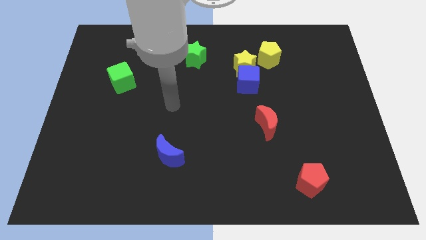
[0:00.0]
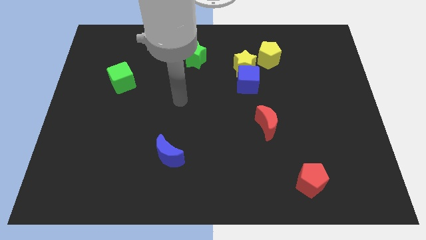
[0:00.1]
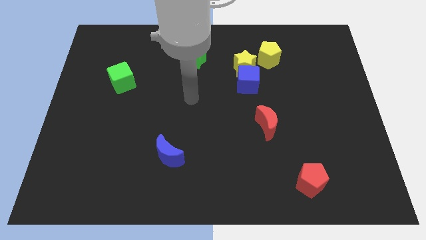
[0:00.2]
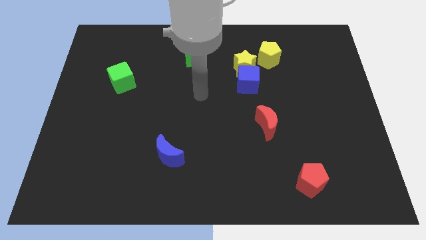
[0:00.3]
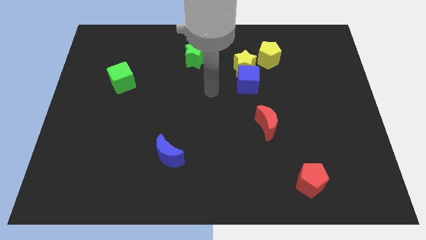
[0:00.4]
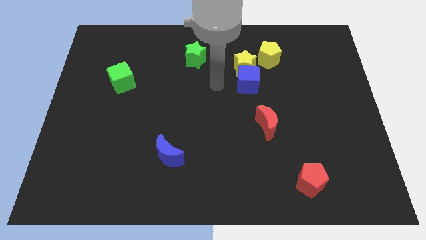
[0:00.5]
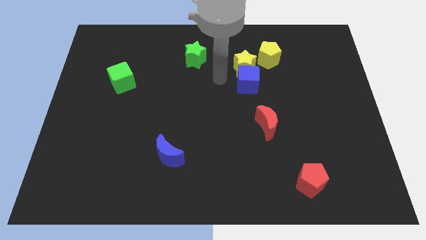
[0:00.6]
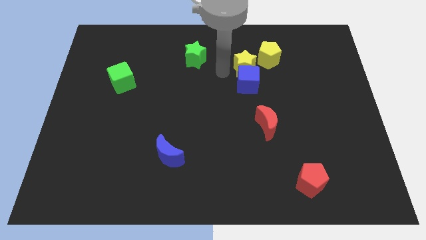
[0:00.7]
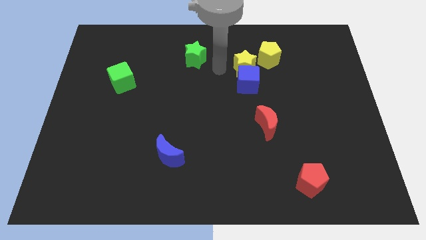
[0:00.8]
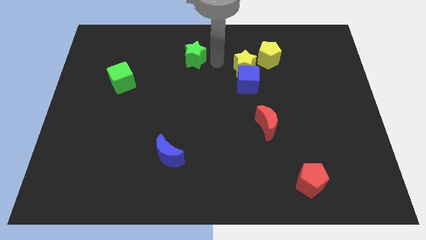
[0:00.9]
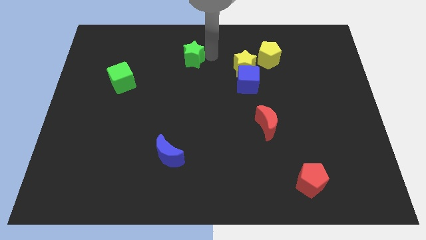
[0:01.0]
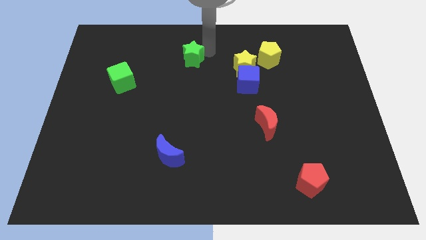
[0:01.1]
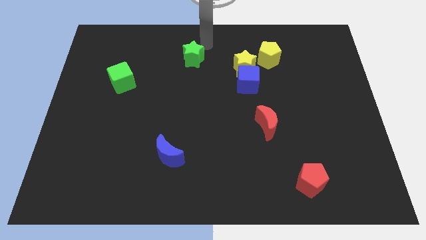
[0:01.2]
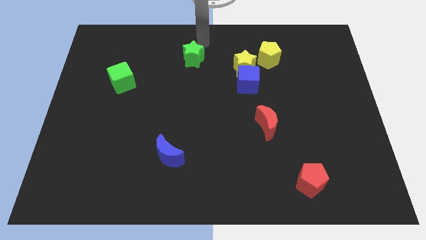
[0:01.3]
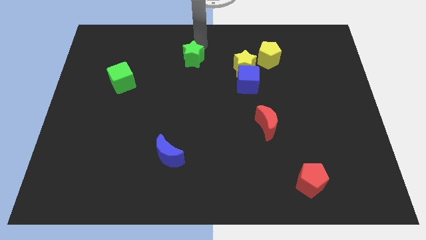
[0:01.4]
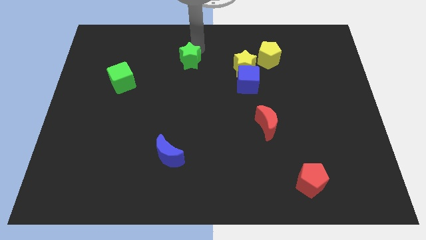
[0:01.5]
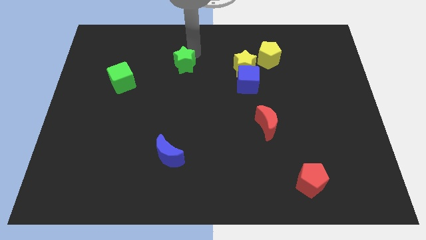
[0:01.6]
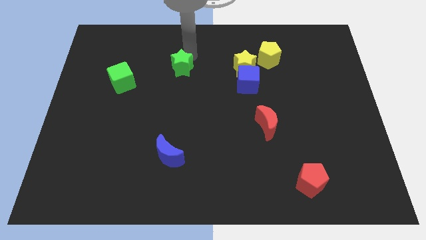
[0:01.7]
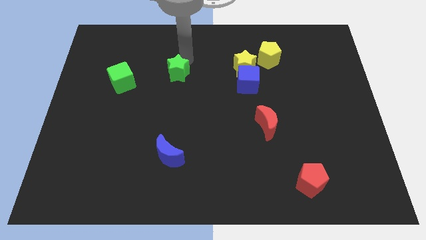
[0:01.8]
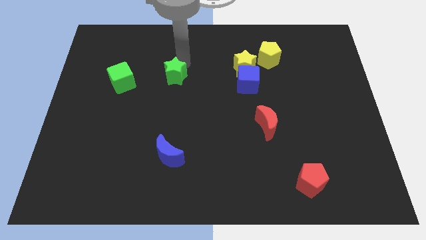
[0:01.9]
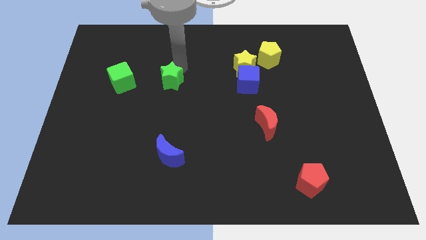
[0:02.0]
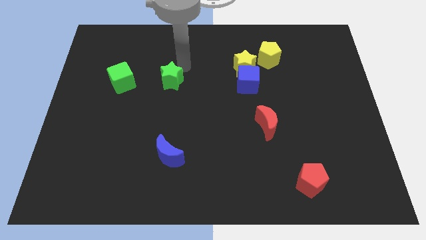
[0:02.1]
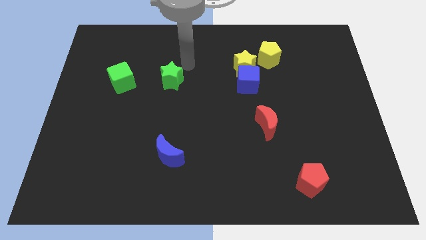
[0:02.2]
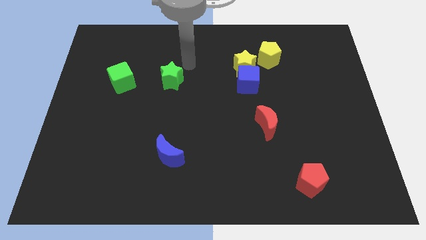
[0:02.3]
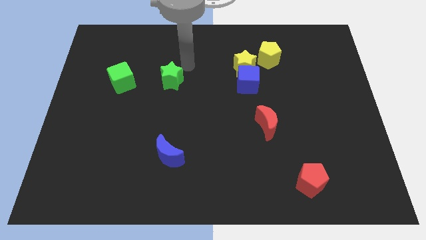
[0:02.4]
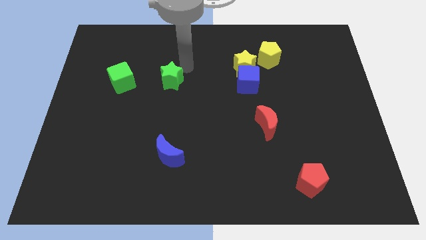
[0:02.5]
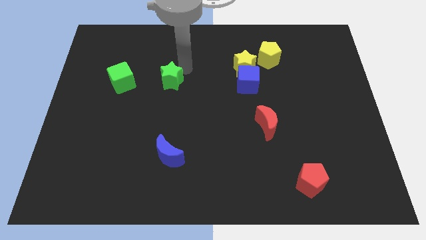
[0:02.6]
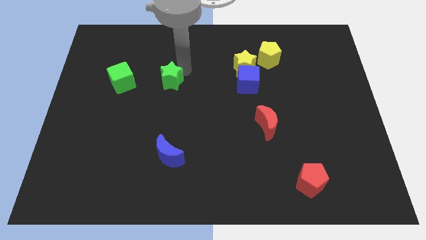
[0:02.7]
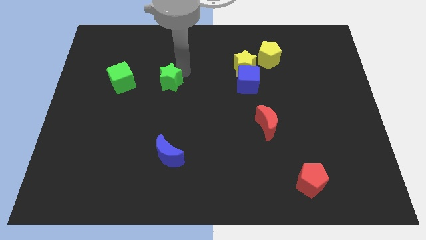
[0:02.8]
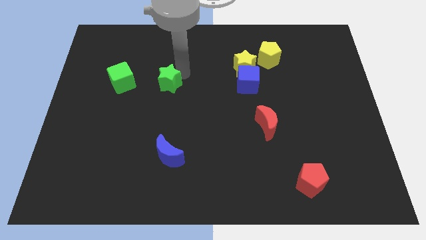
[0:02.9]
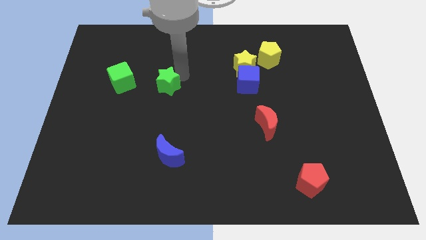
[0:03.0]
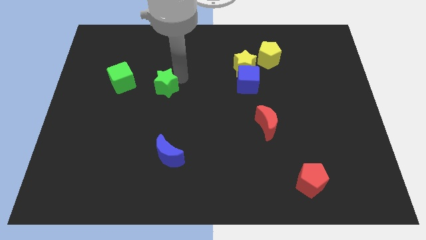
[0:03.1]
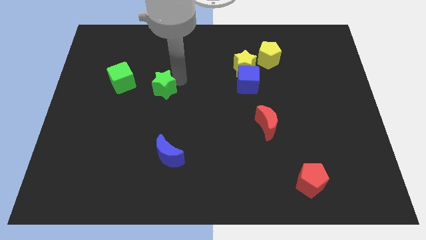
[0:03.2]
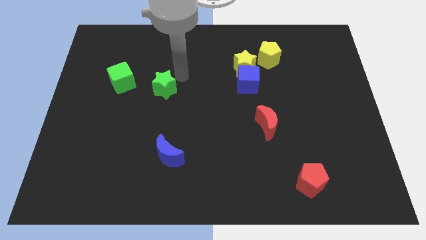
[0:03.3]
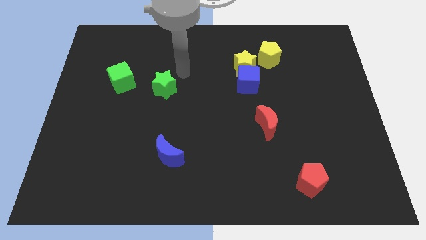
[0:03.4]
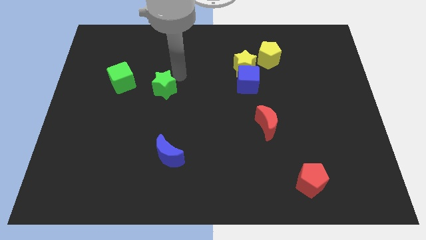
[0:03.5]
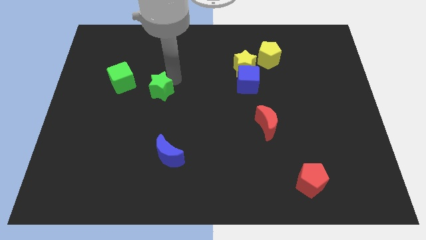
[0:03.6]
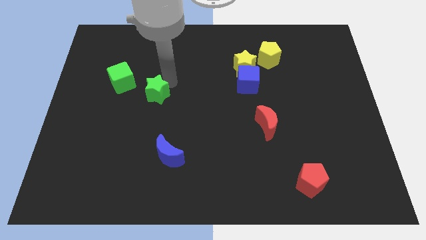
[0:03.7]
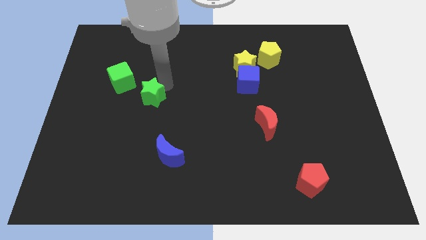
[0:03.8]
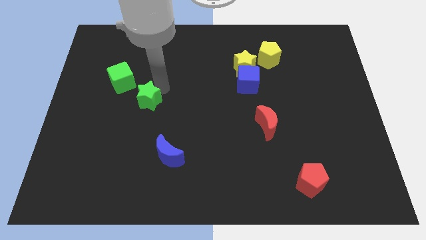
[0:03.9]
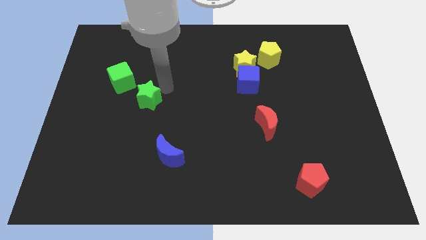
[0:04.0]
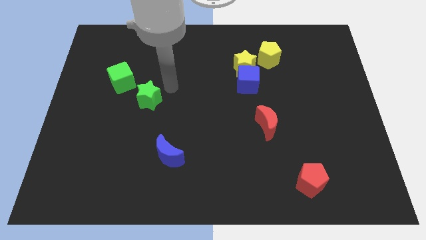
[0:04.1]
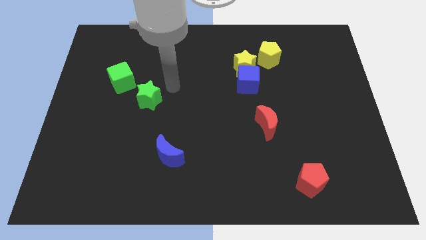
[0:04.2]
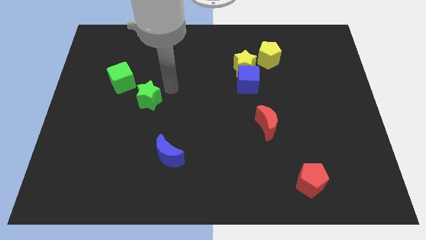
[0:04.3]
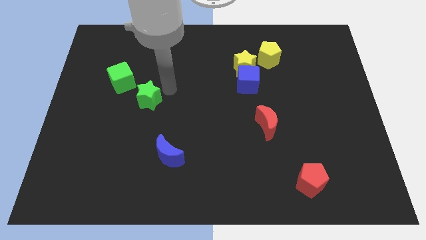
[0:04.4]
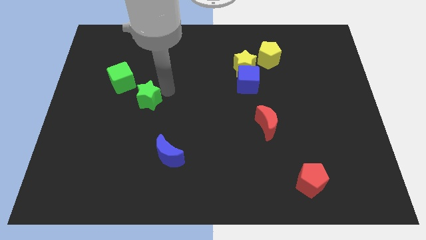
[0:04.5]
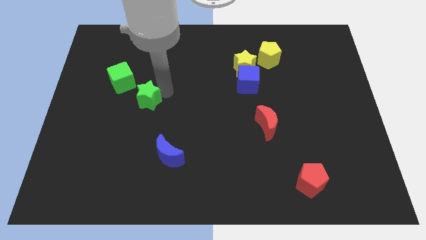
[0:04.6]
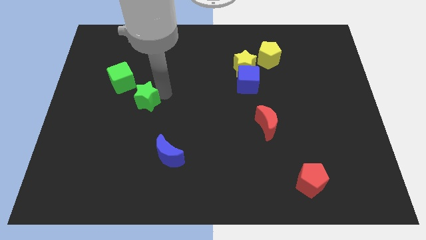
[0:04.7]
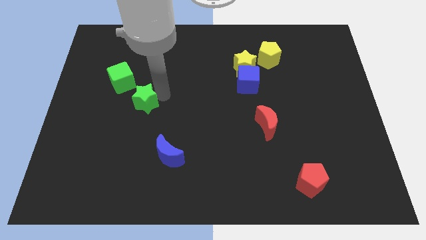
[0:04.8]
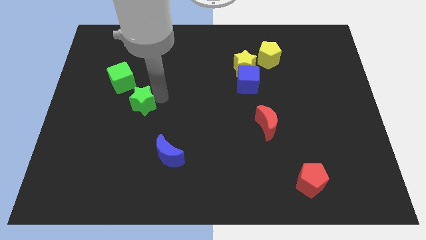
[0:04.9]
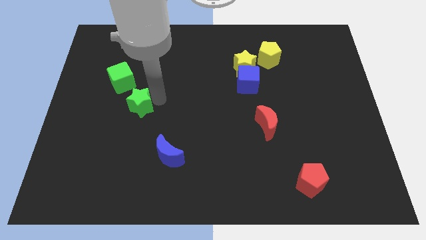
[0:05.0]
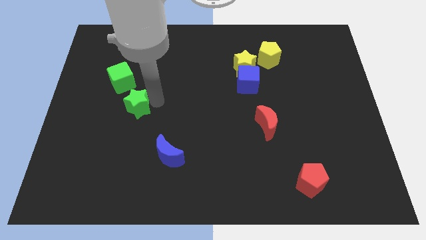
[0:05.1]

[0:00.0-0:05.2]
move the green star to the bottom side of the green cube
